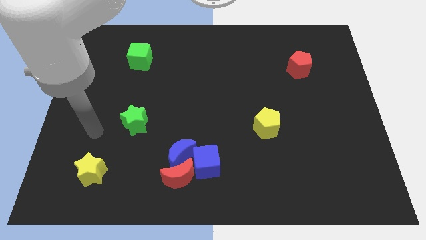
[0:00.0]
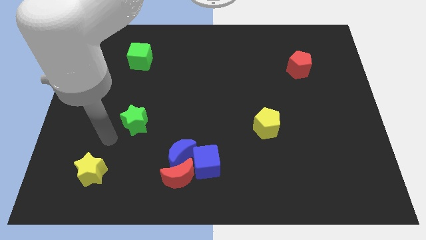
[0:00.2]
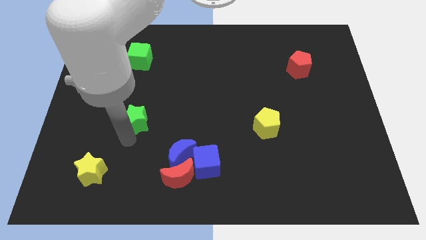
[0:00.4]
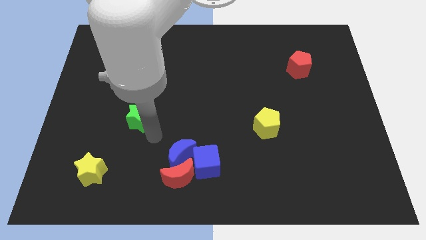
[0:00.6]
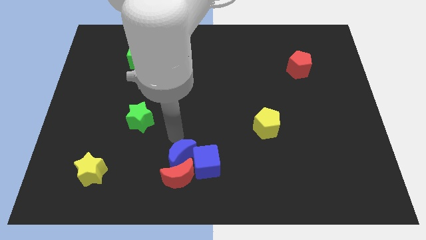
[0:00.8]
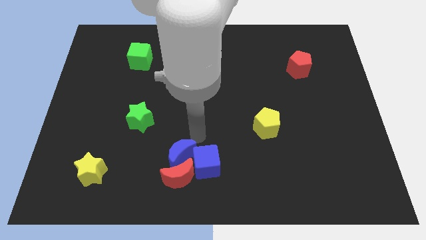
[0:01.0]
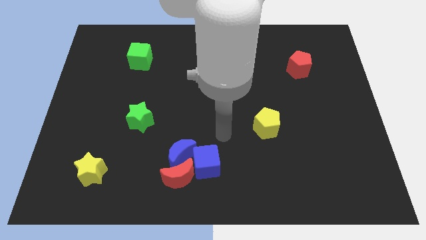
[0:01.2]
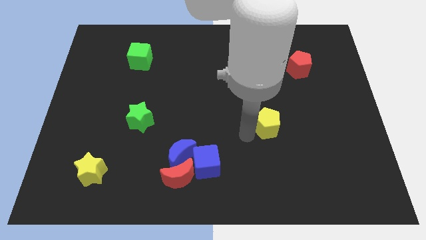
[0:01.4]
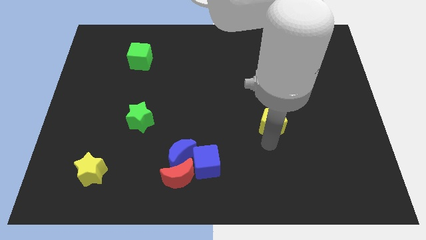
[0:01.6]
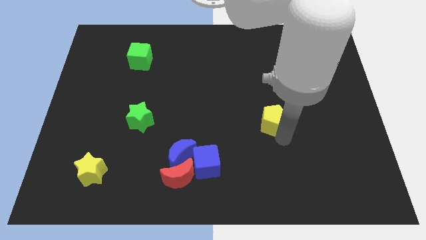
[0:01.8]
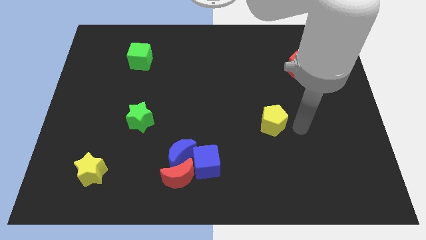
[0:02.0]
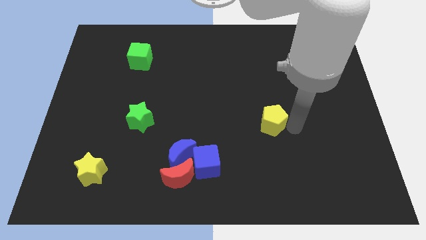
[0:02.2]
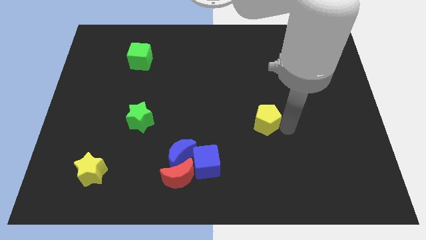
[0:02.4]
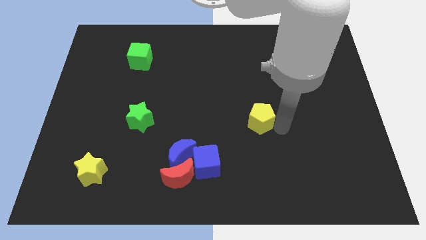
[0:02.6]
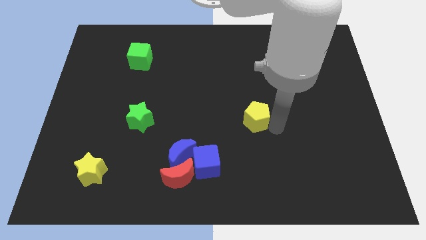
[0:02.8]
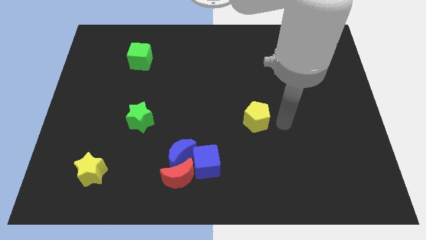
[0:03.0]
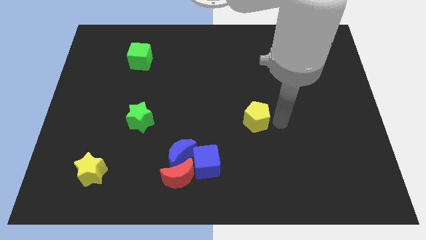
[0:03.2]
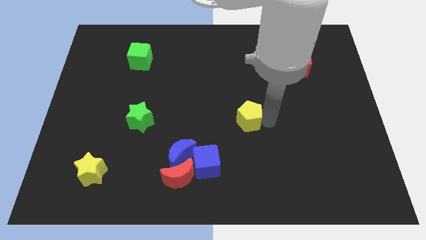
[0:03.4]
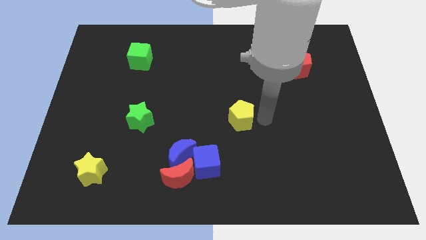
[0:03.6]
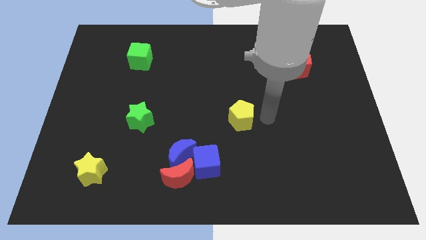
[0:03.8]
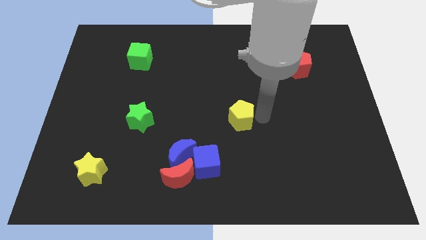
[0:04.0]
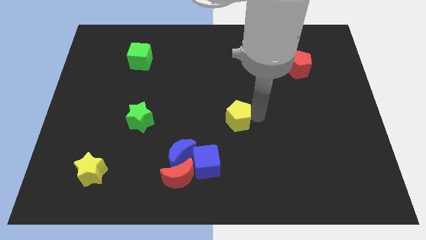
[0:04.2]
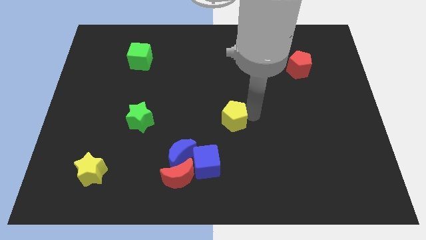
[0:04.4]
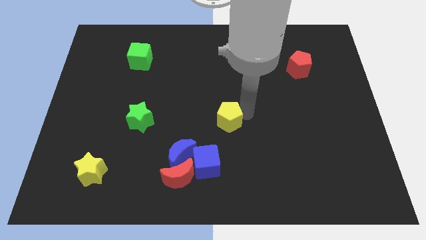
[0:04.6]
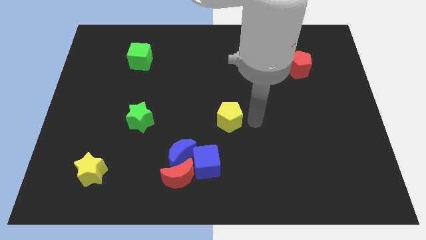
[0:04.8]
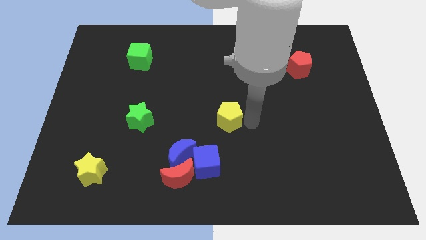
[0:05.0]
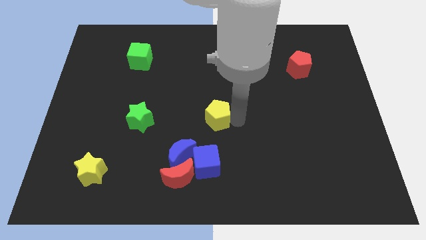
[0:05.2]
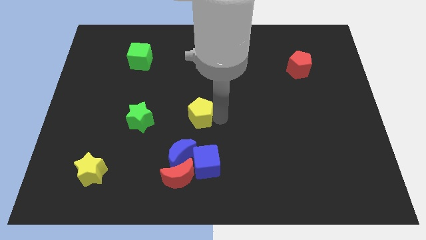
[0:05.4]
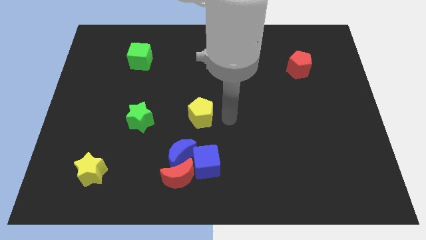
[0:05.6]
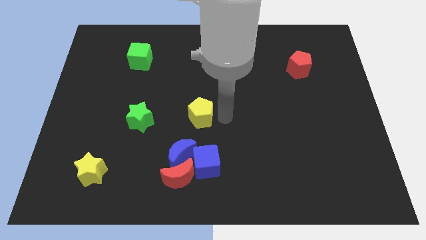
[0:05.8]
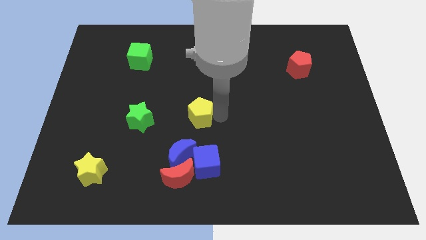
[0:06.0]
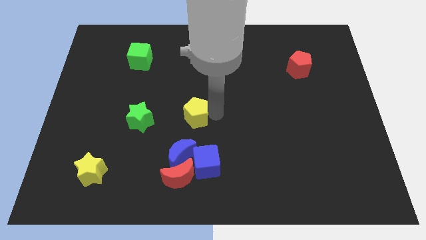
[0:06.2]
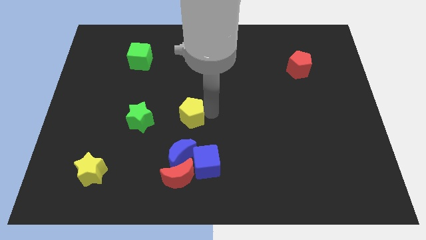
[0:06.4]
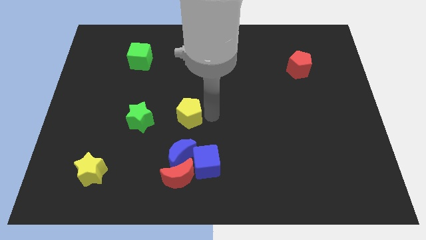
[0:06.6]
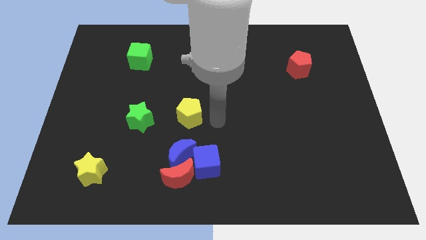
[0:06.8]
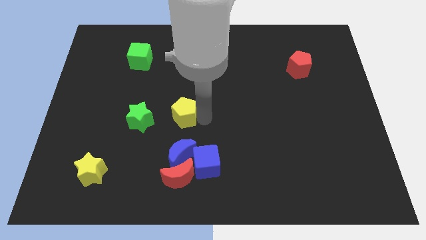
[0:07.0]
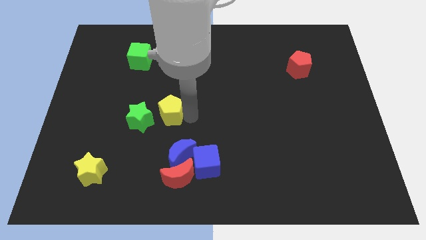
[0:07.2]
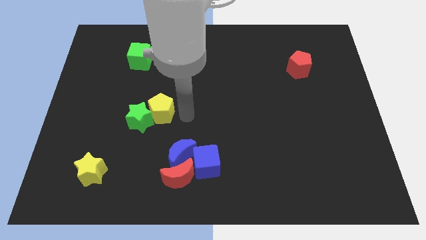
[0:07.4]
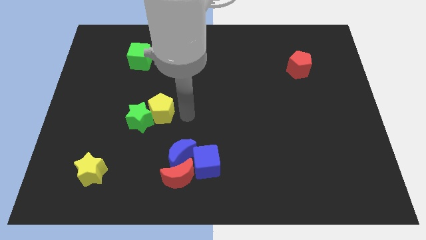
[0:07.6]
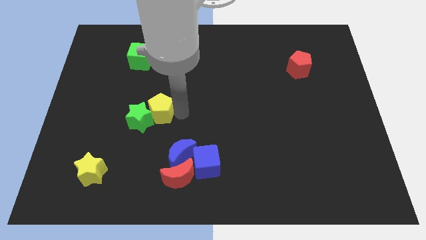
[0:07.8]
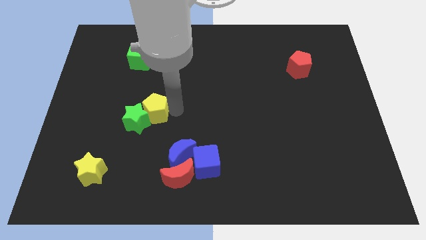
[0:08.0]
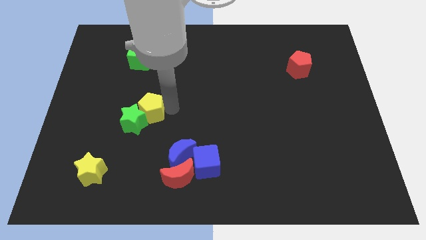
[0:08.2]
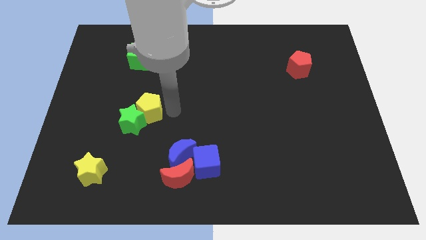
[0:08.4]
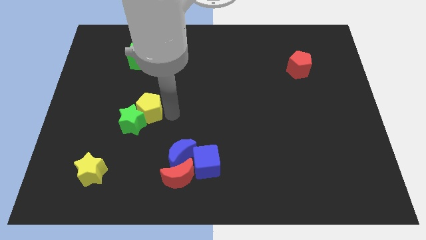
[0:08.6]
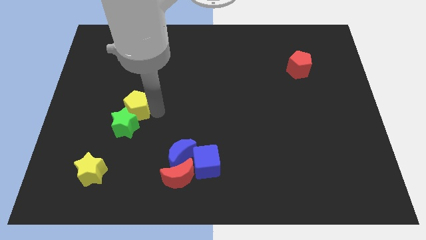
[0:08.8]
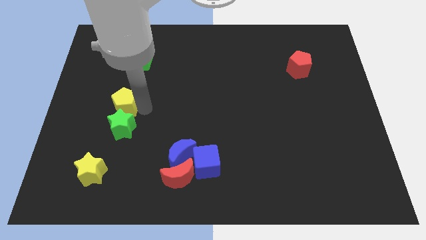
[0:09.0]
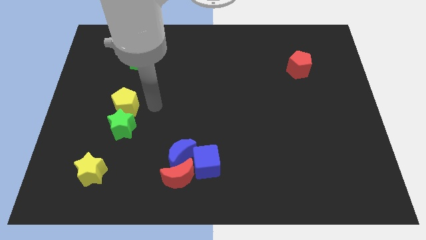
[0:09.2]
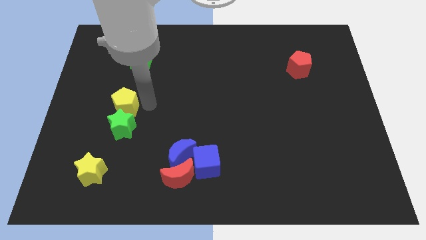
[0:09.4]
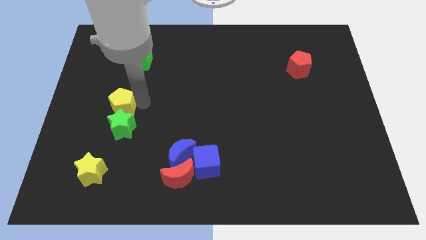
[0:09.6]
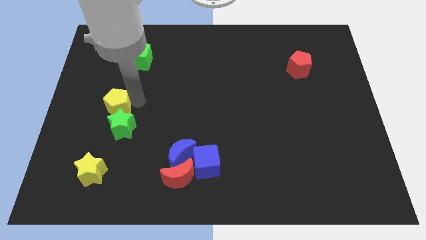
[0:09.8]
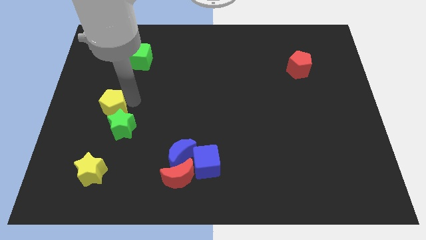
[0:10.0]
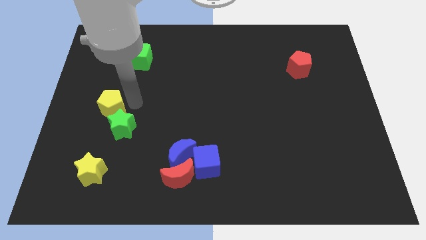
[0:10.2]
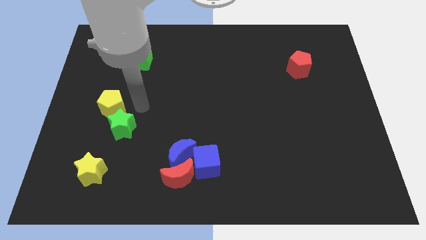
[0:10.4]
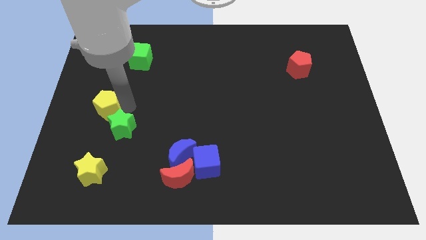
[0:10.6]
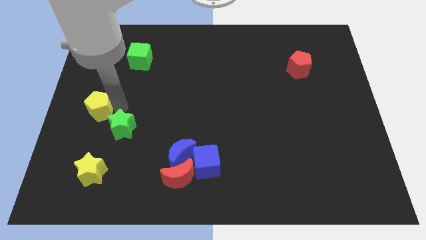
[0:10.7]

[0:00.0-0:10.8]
move the yellow pentagon to the left side of the board
